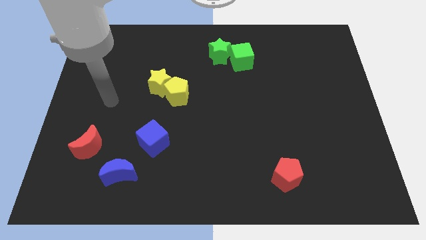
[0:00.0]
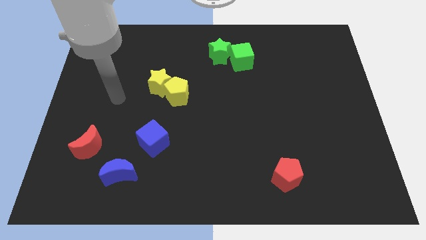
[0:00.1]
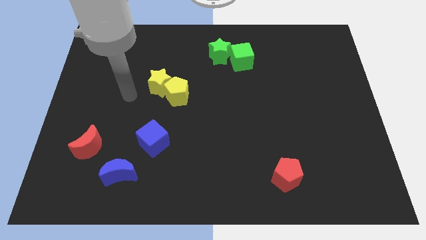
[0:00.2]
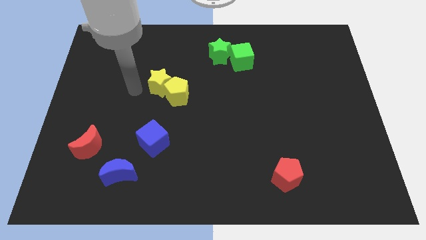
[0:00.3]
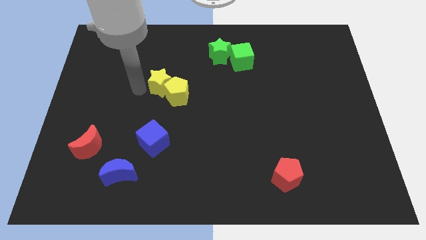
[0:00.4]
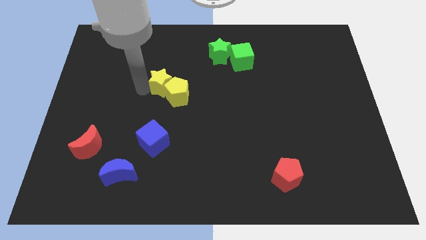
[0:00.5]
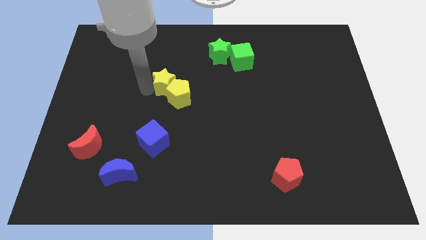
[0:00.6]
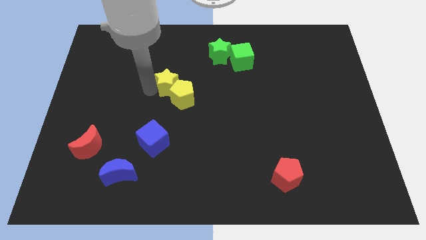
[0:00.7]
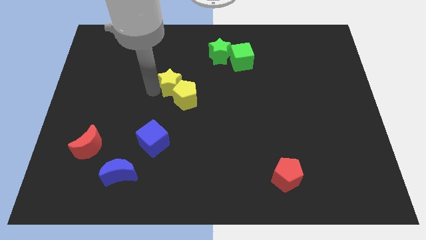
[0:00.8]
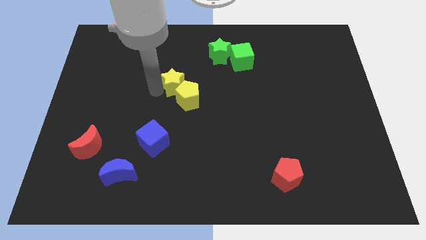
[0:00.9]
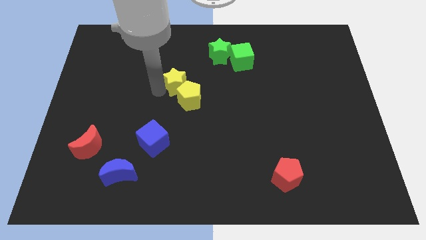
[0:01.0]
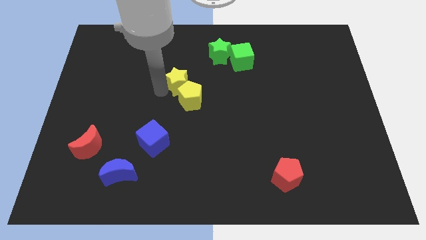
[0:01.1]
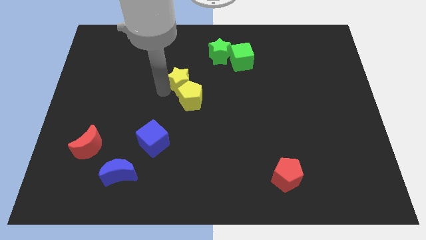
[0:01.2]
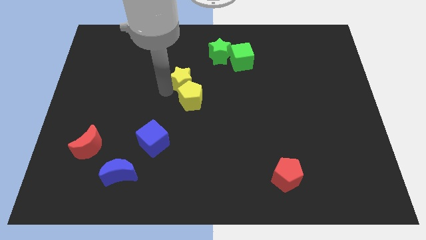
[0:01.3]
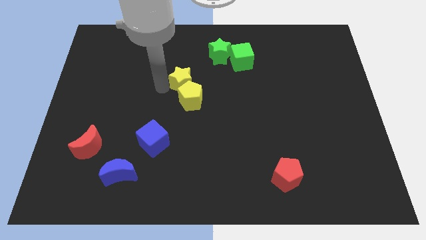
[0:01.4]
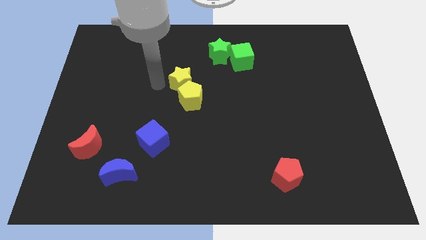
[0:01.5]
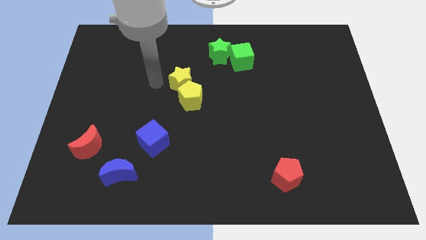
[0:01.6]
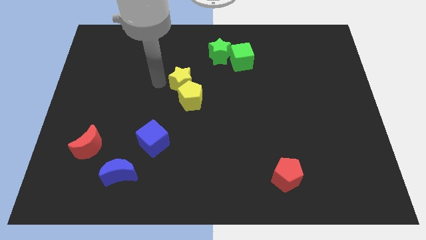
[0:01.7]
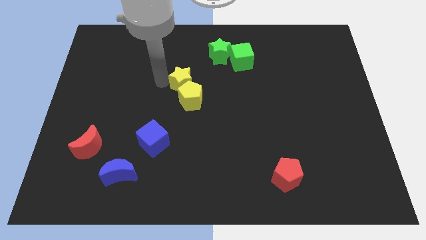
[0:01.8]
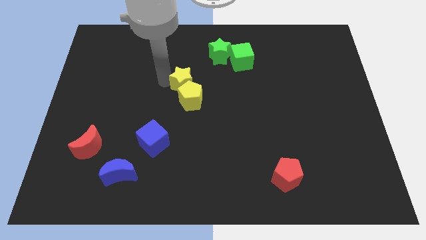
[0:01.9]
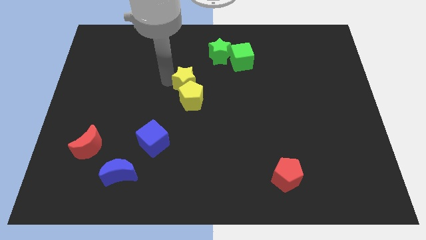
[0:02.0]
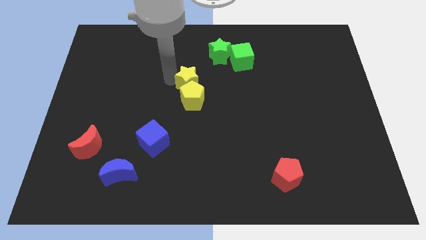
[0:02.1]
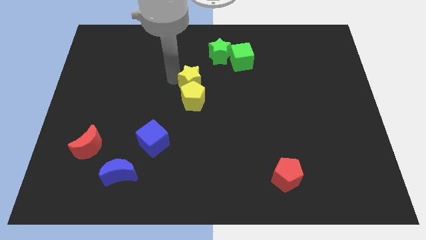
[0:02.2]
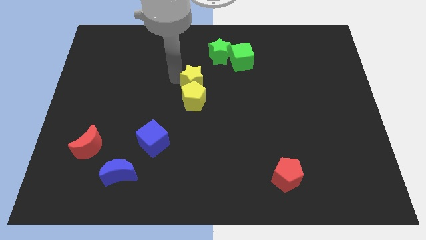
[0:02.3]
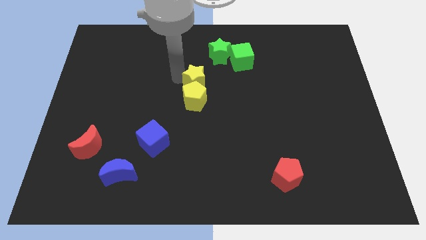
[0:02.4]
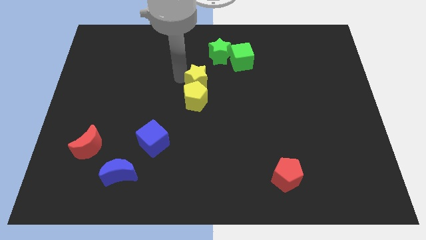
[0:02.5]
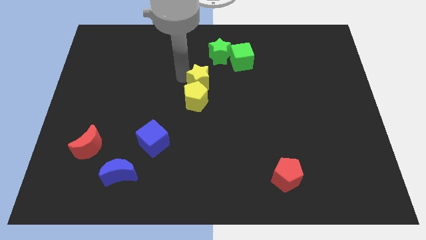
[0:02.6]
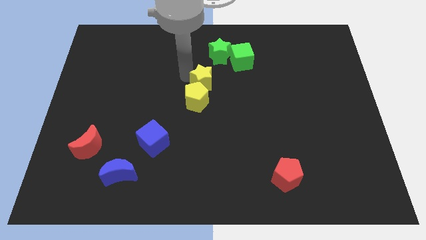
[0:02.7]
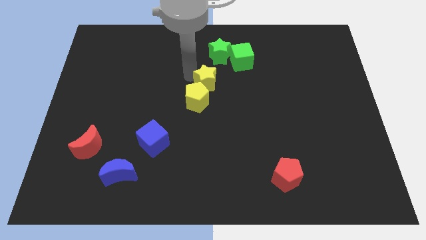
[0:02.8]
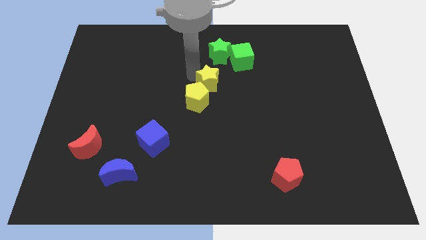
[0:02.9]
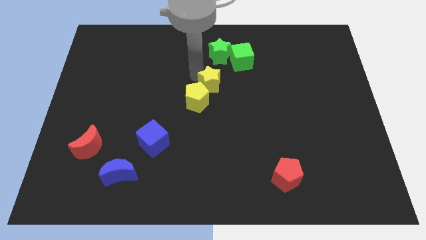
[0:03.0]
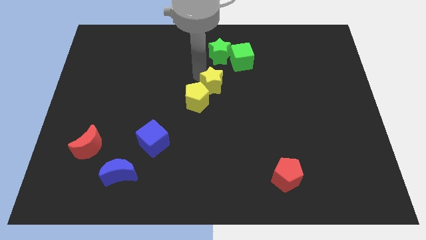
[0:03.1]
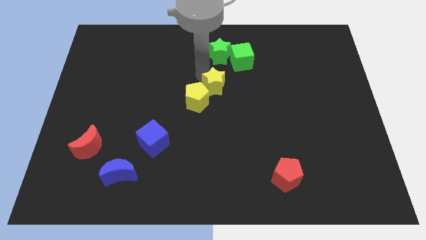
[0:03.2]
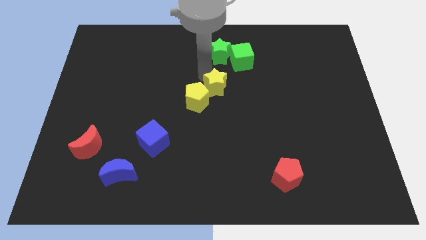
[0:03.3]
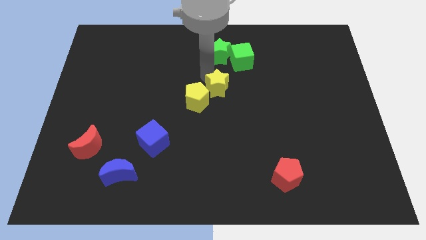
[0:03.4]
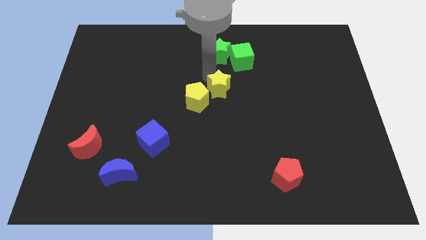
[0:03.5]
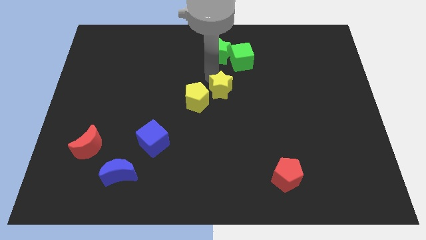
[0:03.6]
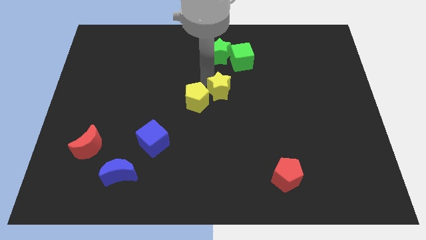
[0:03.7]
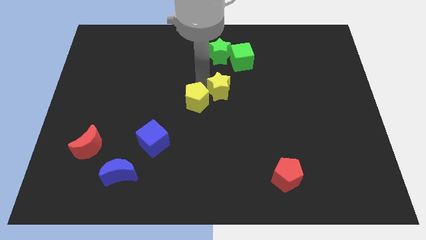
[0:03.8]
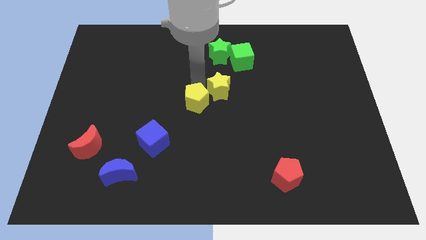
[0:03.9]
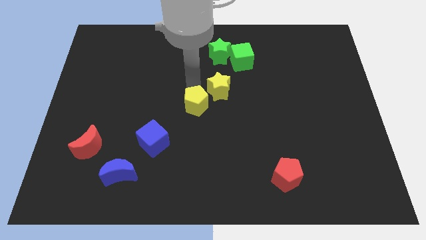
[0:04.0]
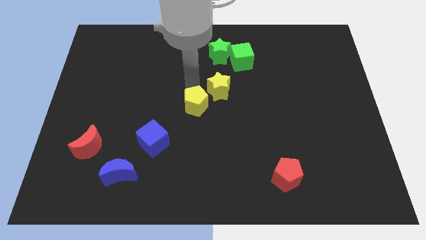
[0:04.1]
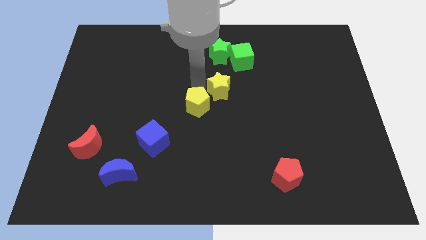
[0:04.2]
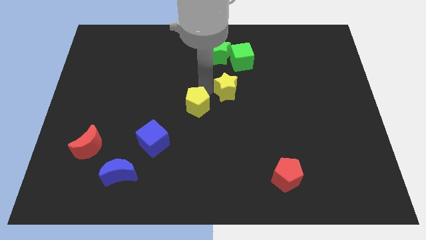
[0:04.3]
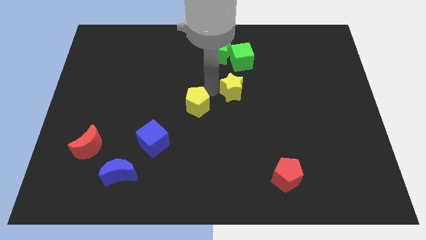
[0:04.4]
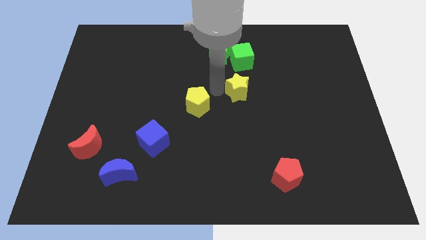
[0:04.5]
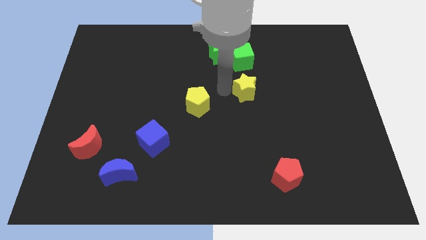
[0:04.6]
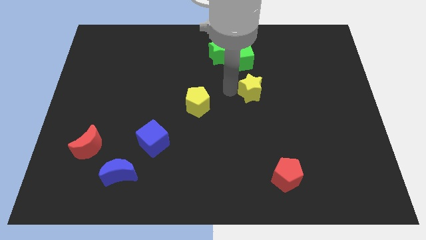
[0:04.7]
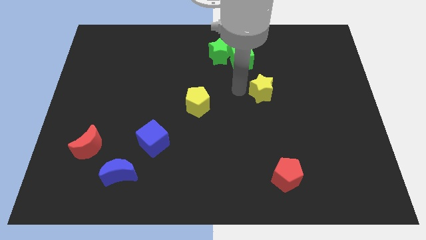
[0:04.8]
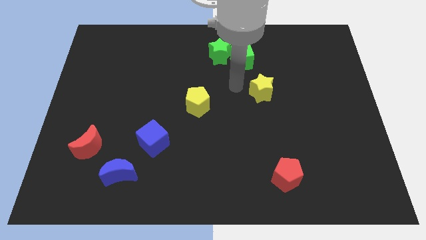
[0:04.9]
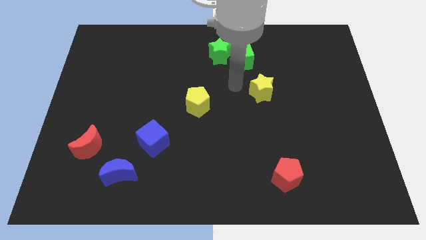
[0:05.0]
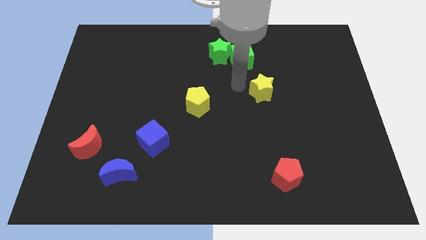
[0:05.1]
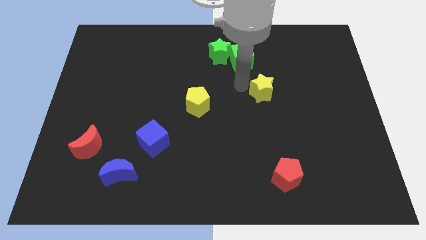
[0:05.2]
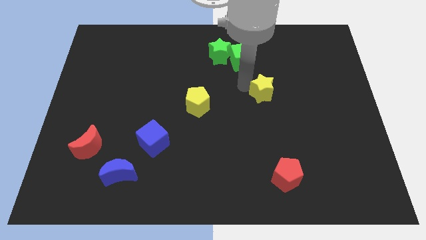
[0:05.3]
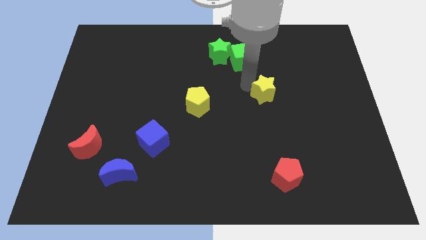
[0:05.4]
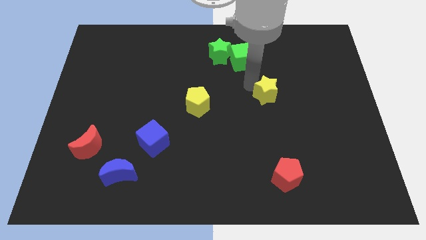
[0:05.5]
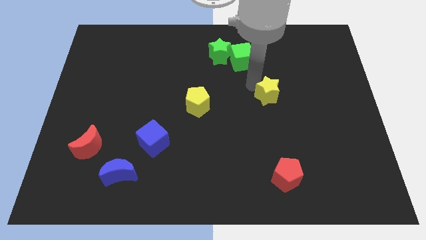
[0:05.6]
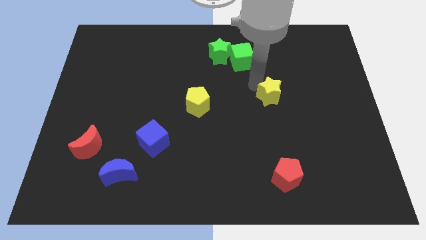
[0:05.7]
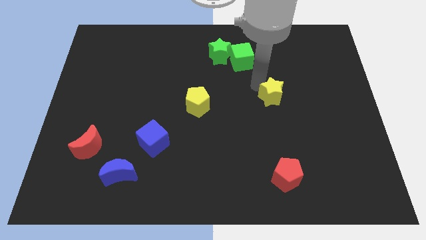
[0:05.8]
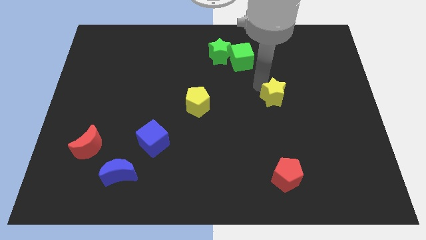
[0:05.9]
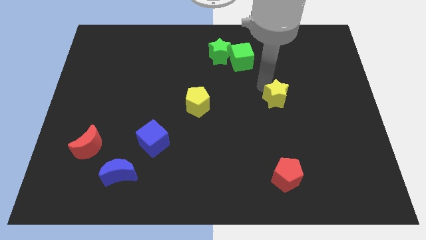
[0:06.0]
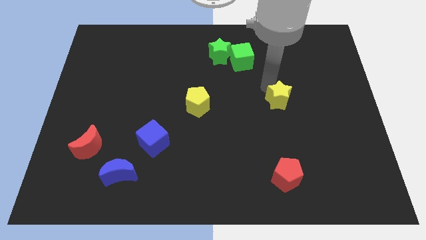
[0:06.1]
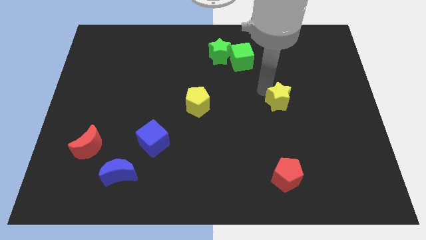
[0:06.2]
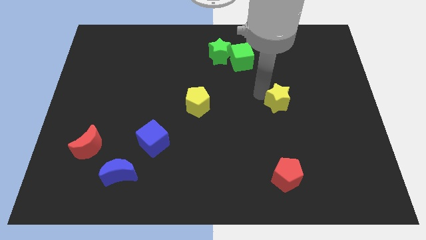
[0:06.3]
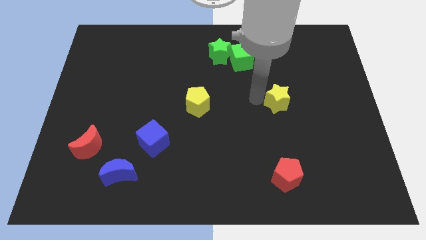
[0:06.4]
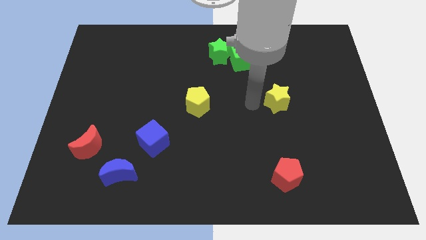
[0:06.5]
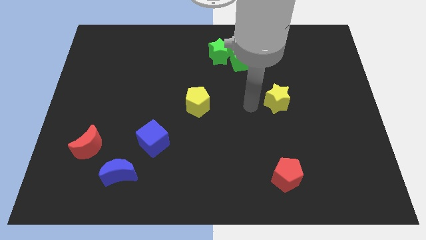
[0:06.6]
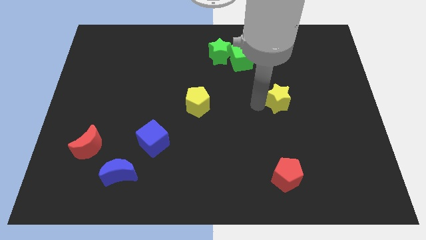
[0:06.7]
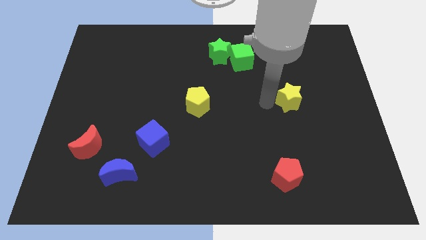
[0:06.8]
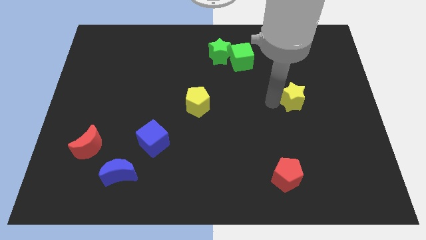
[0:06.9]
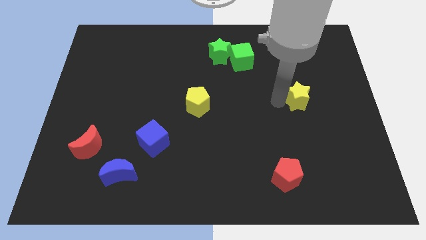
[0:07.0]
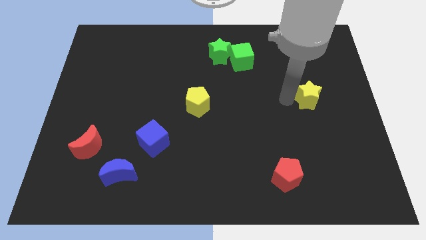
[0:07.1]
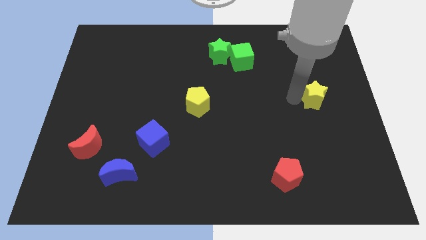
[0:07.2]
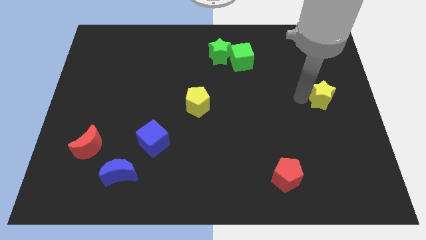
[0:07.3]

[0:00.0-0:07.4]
put the yellow star to the right side of the board
